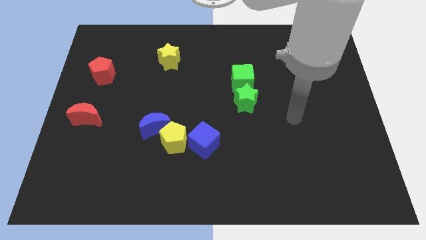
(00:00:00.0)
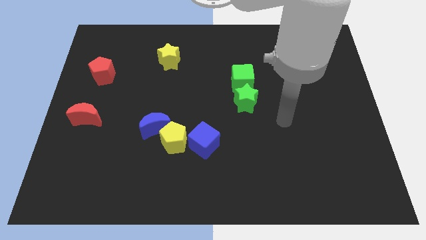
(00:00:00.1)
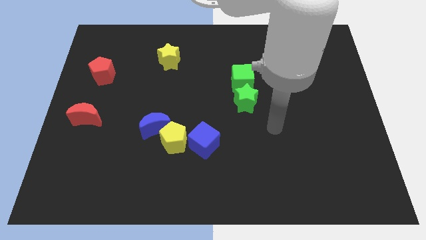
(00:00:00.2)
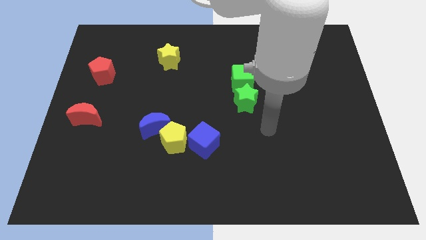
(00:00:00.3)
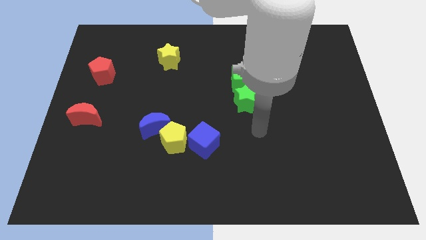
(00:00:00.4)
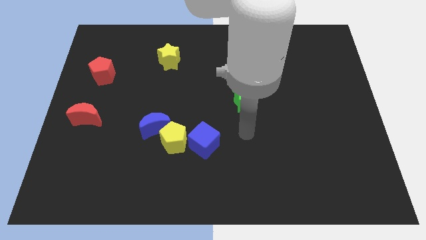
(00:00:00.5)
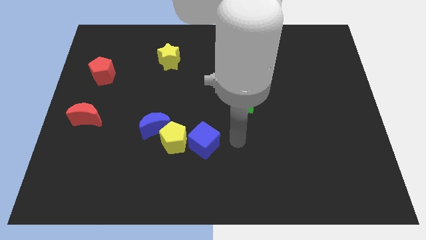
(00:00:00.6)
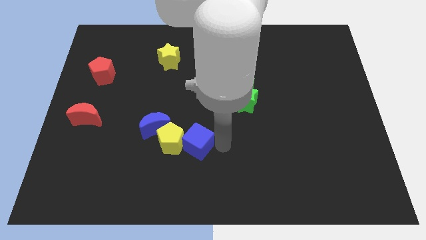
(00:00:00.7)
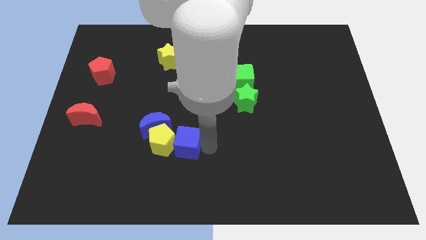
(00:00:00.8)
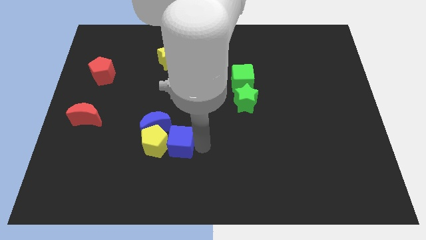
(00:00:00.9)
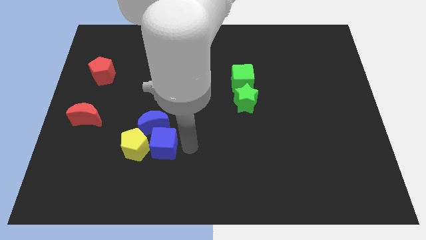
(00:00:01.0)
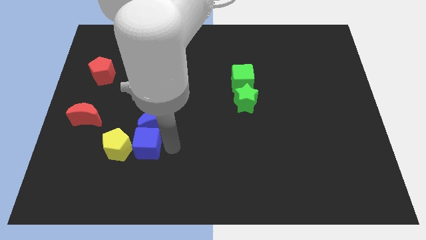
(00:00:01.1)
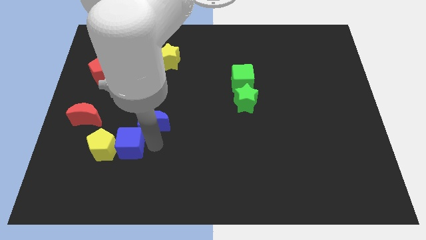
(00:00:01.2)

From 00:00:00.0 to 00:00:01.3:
move the blue moon away from the yellow pentagon

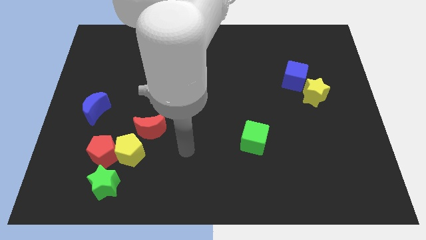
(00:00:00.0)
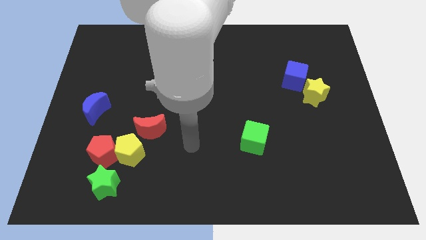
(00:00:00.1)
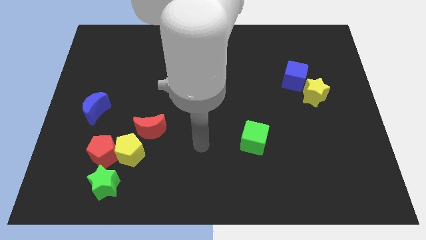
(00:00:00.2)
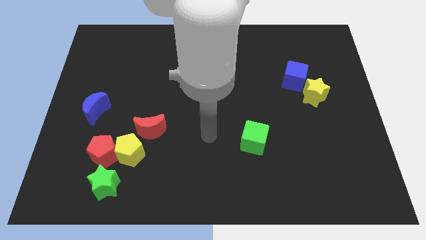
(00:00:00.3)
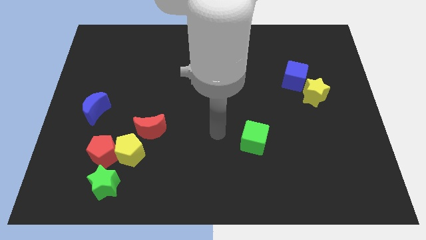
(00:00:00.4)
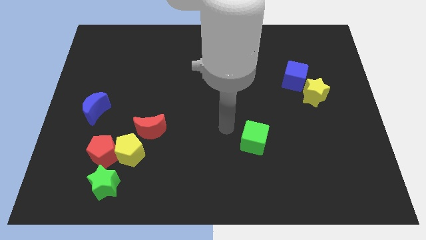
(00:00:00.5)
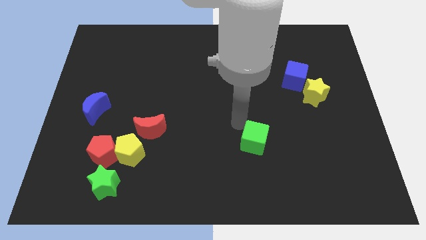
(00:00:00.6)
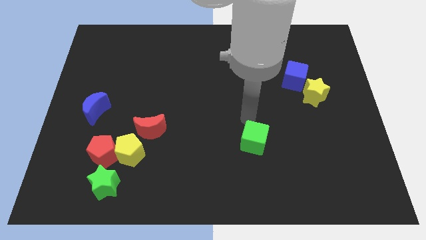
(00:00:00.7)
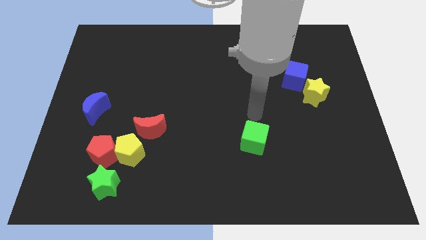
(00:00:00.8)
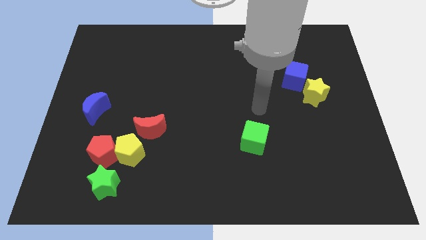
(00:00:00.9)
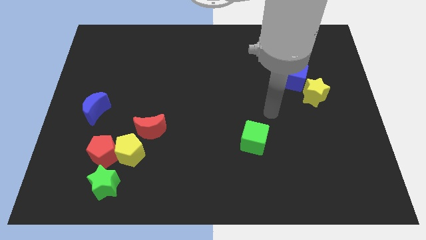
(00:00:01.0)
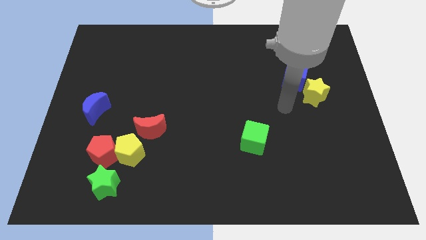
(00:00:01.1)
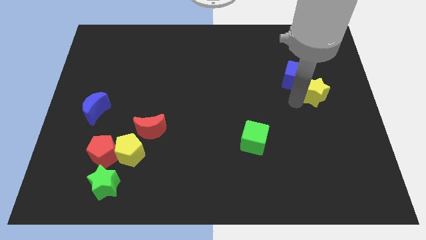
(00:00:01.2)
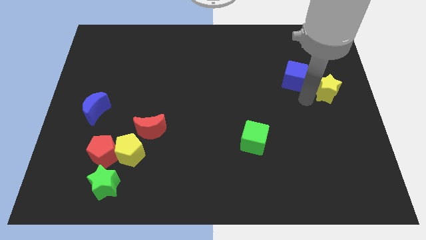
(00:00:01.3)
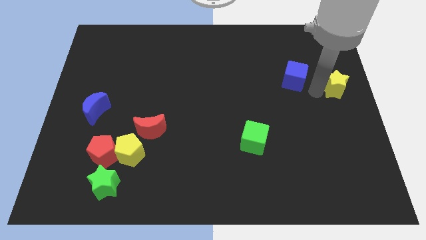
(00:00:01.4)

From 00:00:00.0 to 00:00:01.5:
separate the blue cube from the yellow star

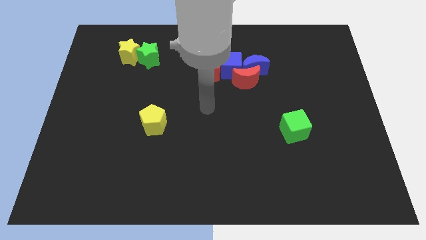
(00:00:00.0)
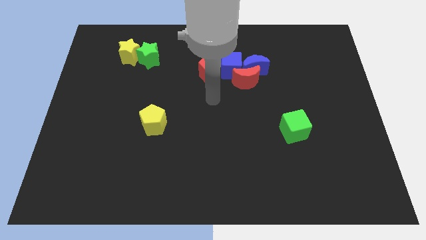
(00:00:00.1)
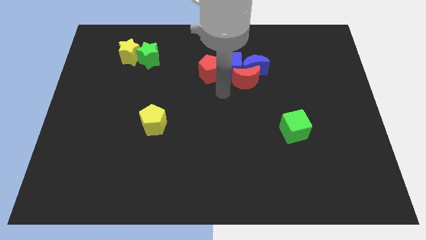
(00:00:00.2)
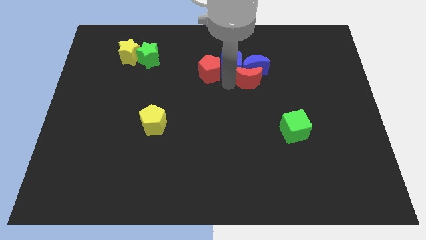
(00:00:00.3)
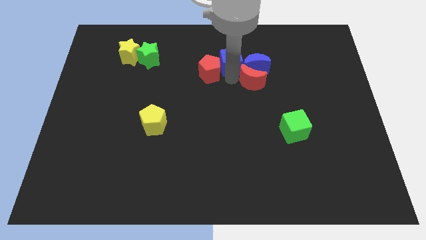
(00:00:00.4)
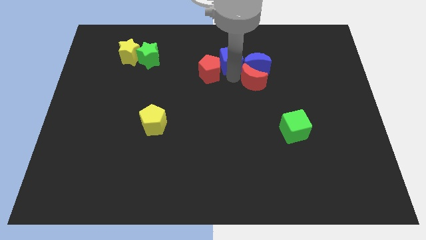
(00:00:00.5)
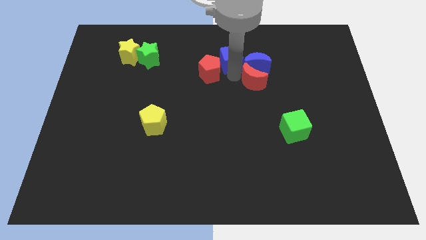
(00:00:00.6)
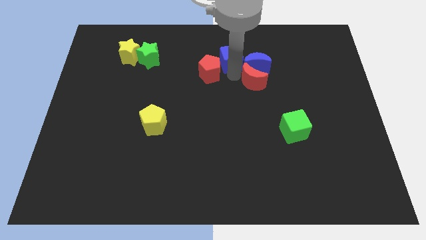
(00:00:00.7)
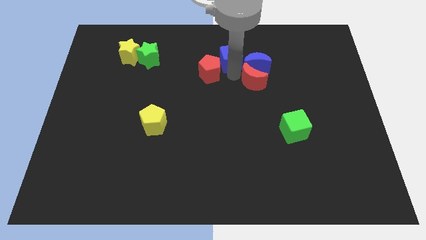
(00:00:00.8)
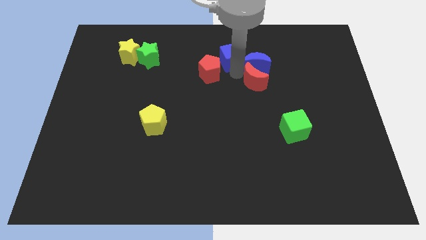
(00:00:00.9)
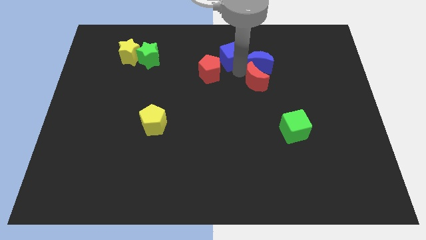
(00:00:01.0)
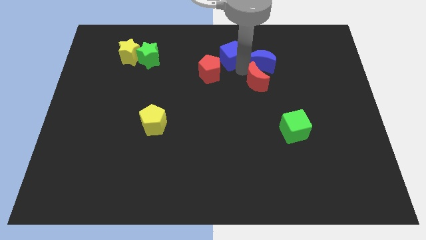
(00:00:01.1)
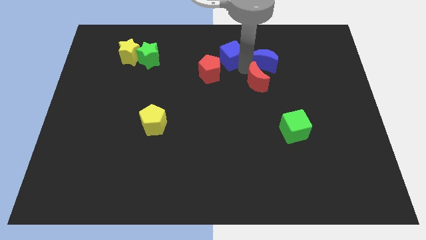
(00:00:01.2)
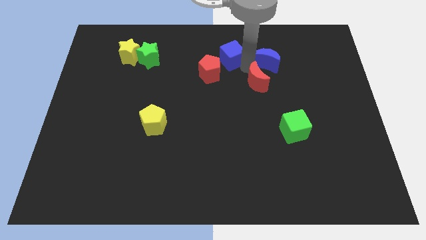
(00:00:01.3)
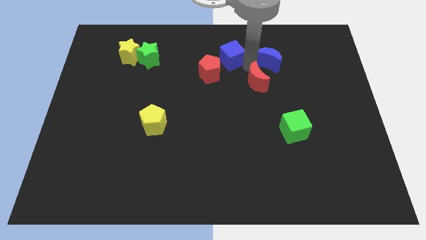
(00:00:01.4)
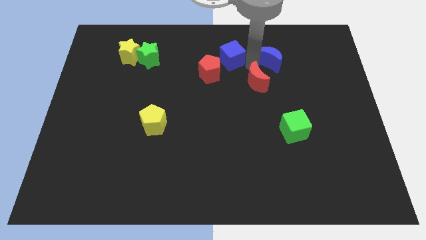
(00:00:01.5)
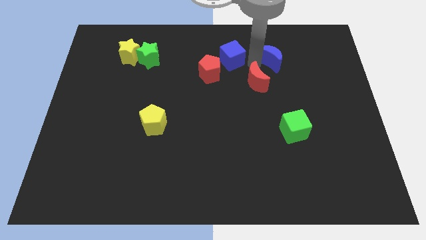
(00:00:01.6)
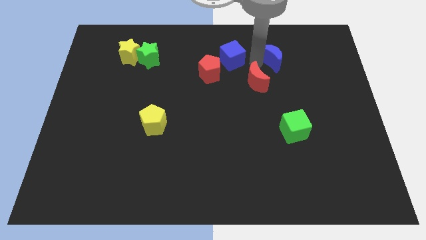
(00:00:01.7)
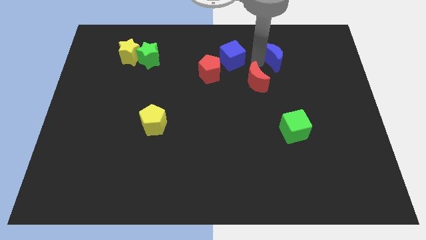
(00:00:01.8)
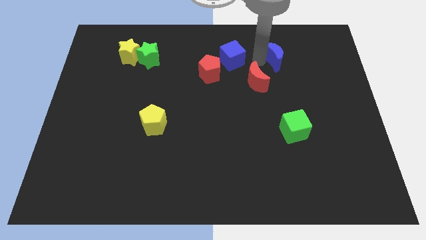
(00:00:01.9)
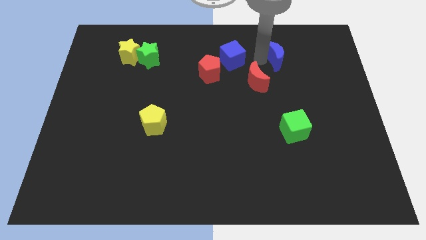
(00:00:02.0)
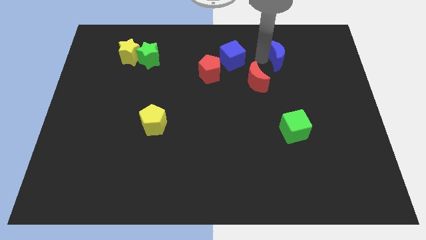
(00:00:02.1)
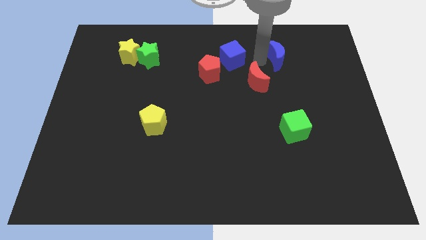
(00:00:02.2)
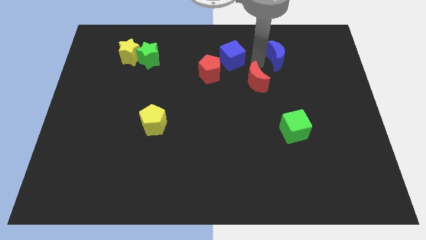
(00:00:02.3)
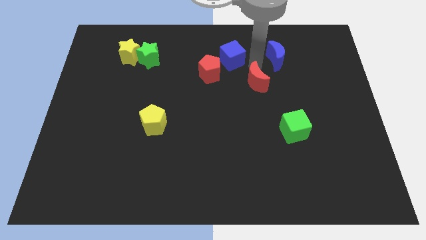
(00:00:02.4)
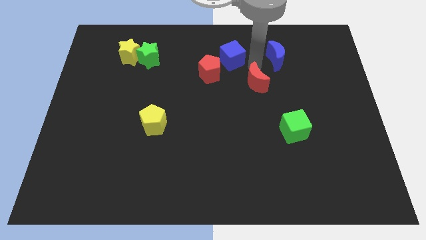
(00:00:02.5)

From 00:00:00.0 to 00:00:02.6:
move the blue moon away from the red moon and blue cube

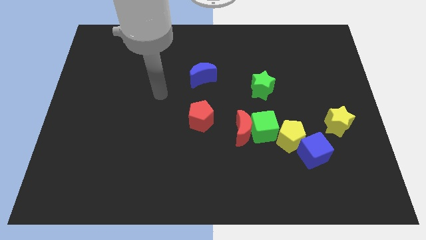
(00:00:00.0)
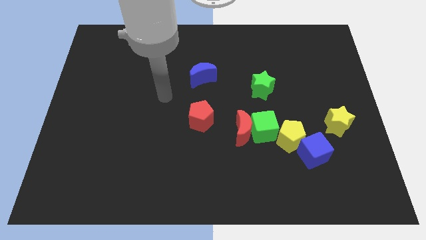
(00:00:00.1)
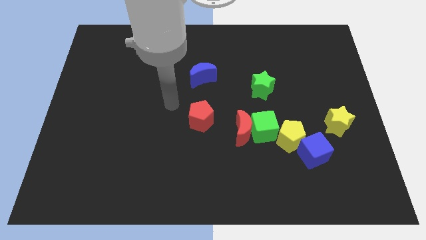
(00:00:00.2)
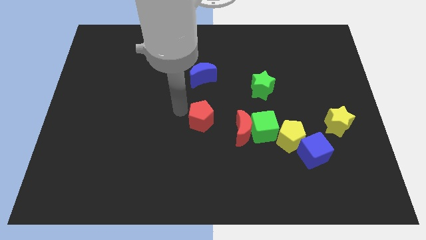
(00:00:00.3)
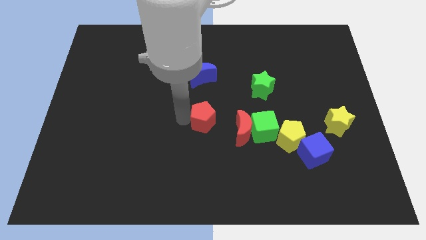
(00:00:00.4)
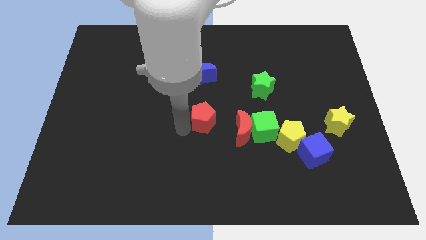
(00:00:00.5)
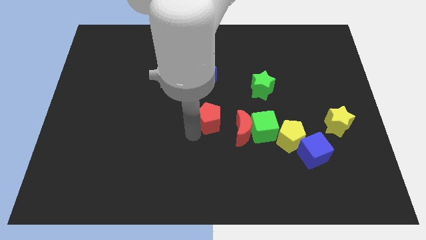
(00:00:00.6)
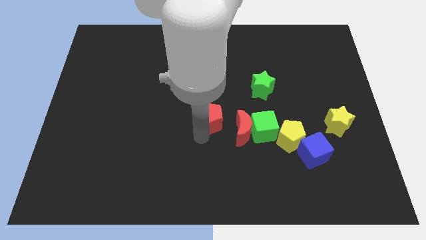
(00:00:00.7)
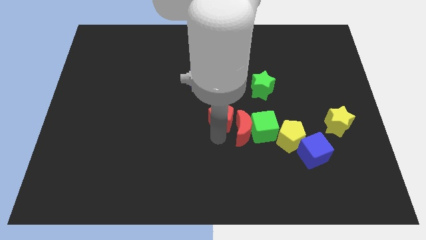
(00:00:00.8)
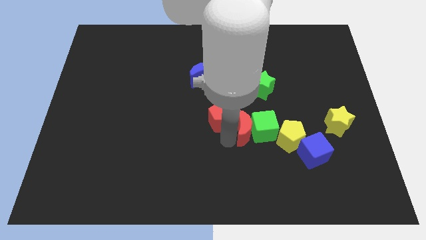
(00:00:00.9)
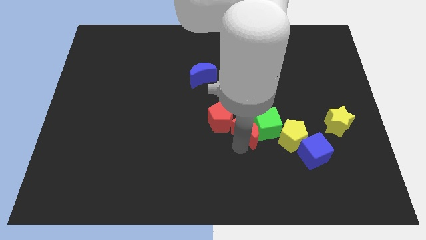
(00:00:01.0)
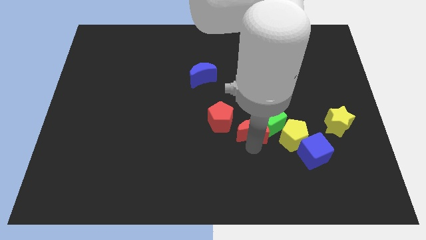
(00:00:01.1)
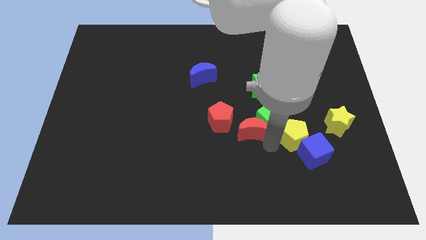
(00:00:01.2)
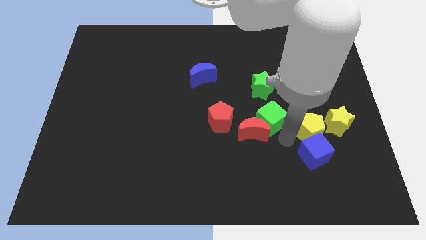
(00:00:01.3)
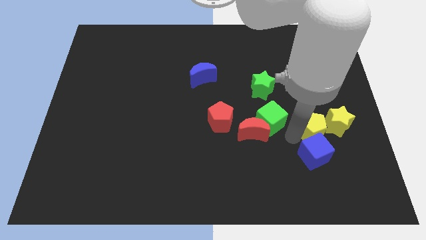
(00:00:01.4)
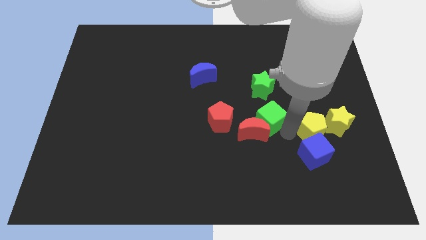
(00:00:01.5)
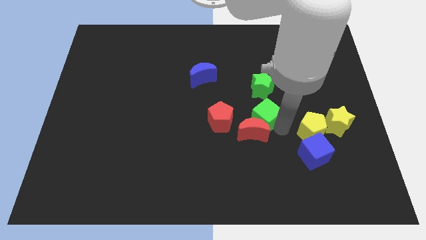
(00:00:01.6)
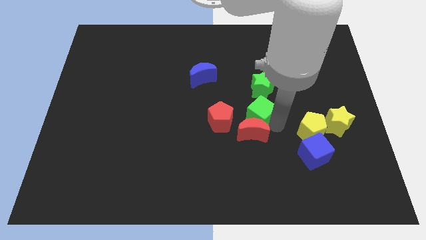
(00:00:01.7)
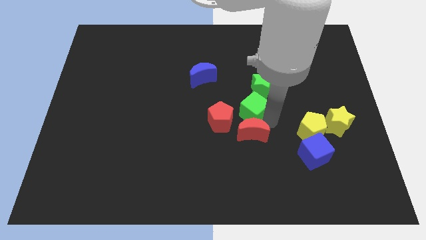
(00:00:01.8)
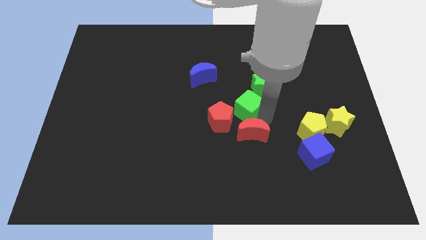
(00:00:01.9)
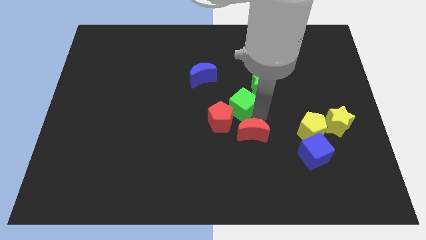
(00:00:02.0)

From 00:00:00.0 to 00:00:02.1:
pull the green cube apart from the red moon and yellow pentagon

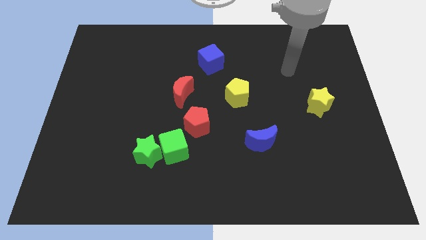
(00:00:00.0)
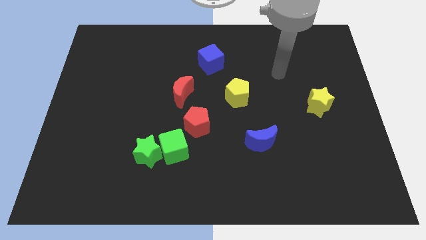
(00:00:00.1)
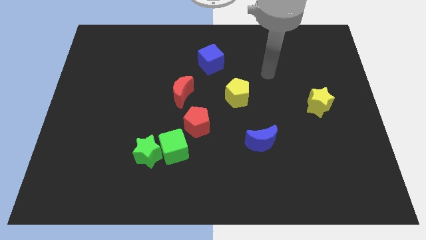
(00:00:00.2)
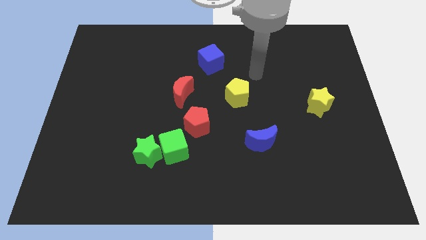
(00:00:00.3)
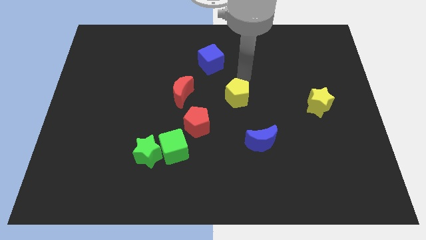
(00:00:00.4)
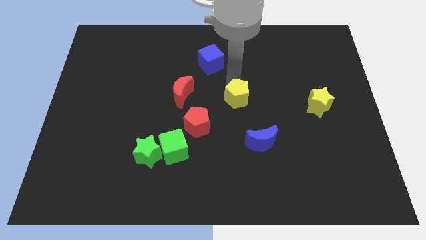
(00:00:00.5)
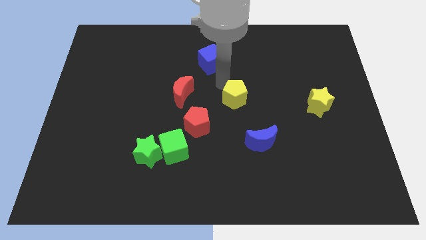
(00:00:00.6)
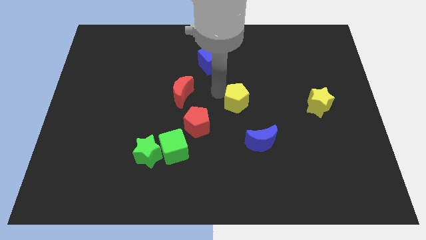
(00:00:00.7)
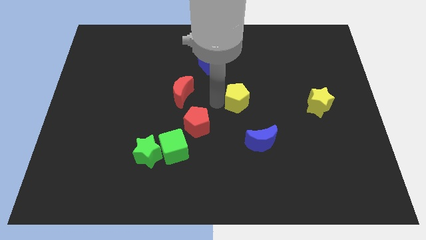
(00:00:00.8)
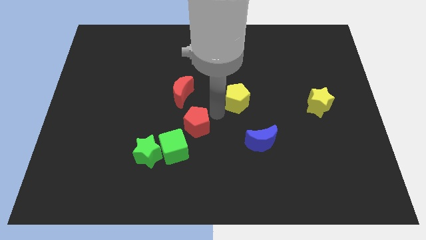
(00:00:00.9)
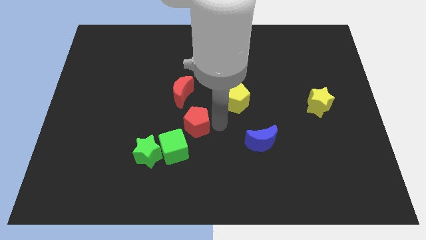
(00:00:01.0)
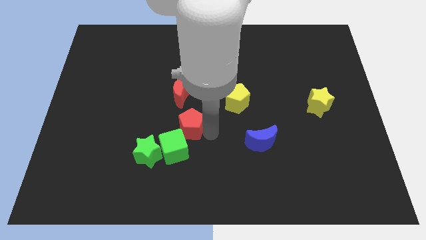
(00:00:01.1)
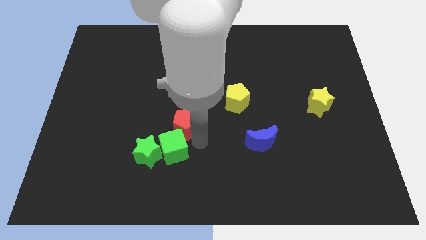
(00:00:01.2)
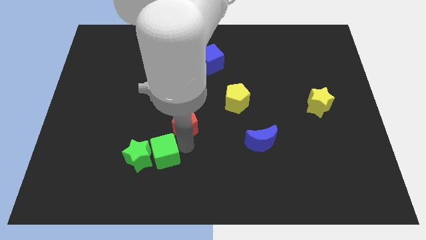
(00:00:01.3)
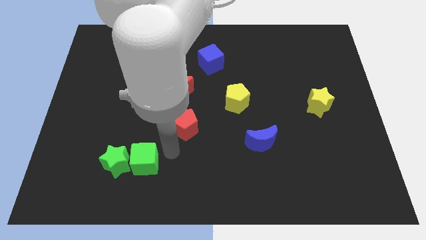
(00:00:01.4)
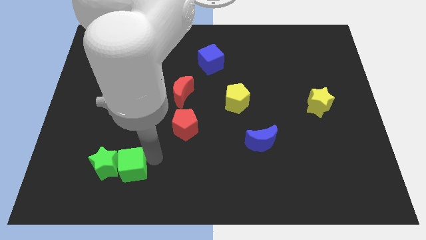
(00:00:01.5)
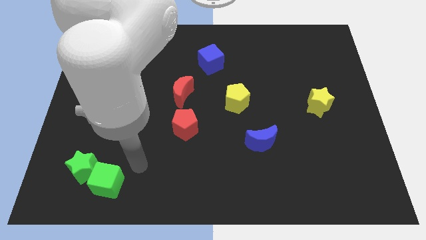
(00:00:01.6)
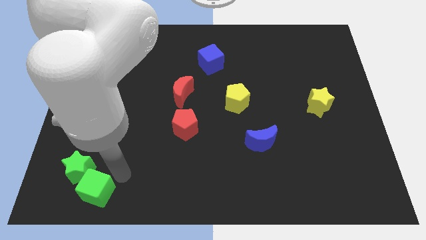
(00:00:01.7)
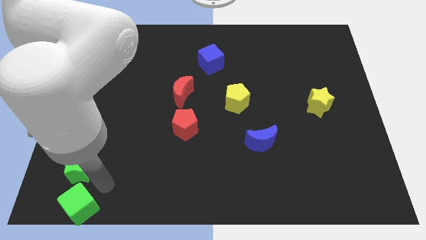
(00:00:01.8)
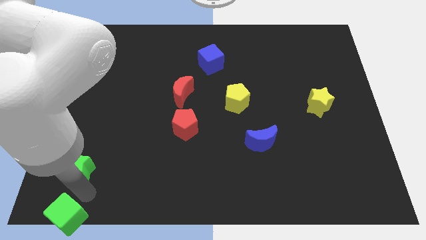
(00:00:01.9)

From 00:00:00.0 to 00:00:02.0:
pull the green star apart from the green cube
